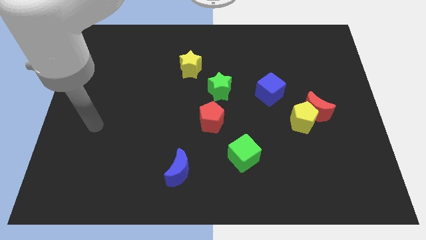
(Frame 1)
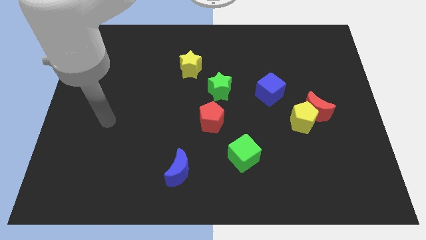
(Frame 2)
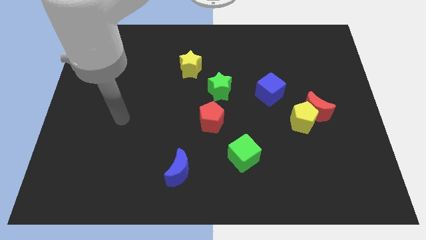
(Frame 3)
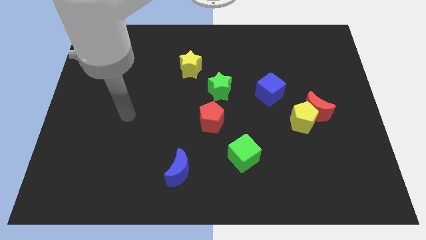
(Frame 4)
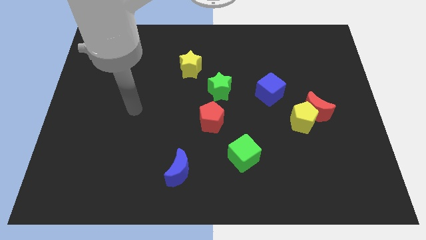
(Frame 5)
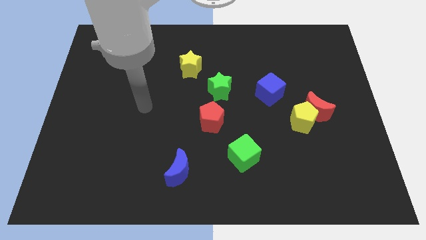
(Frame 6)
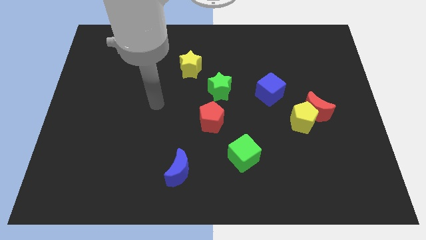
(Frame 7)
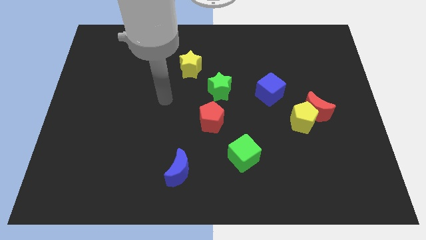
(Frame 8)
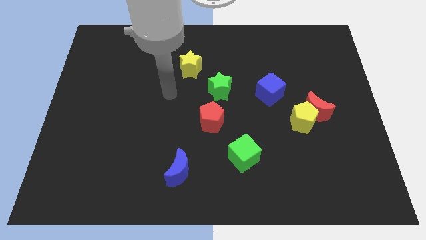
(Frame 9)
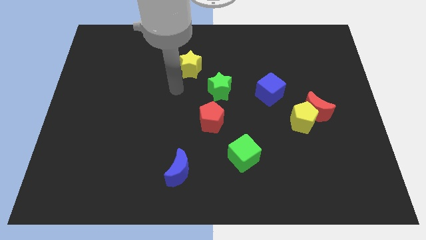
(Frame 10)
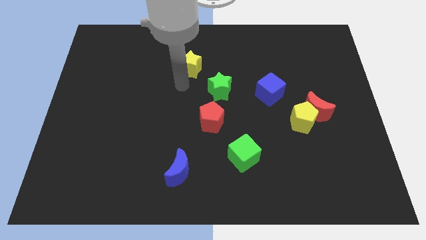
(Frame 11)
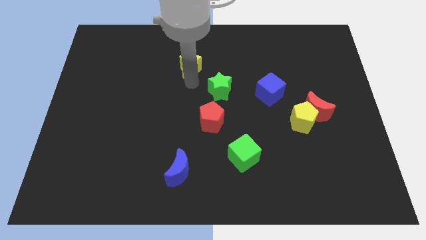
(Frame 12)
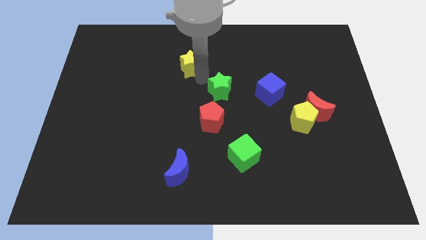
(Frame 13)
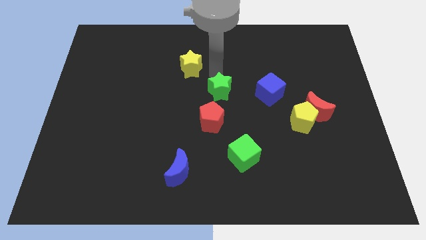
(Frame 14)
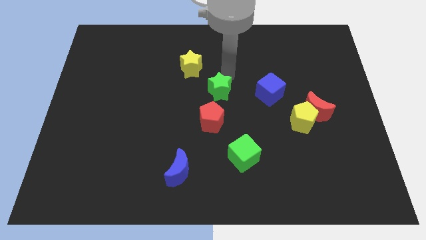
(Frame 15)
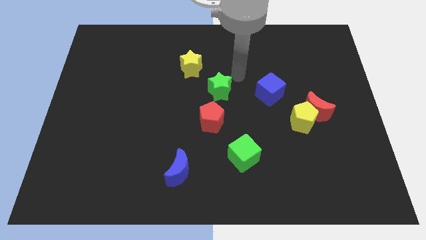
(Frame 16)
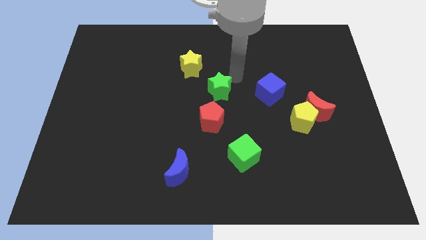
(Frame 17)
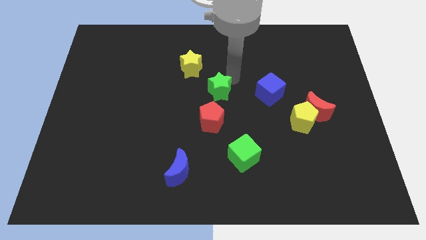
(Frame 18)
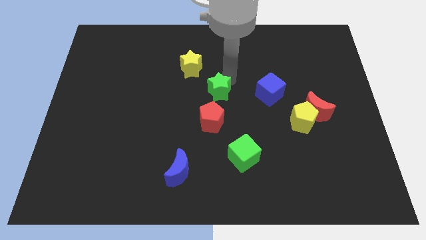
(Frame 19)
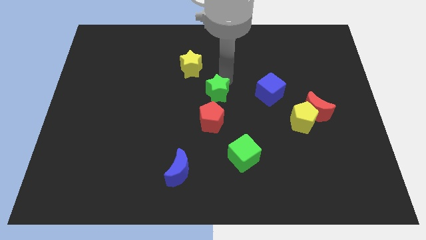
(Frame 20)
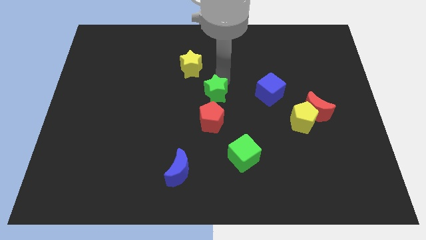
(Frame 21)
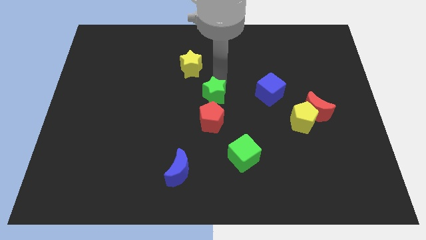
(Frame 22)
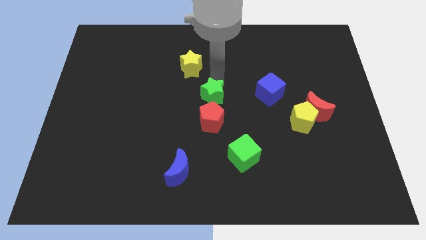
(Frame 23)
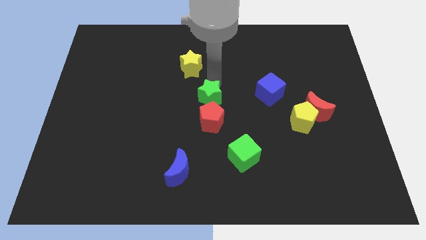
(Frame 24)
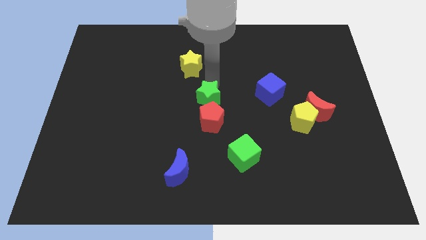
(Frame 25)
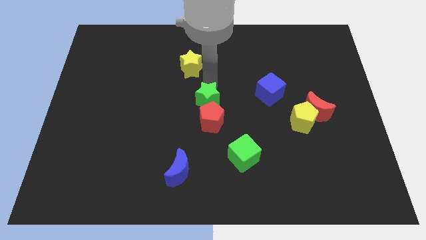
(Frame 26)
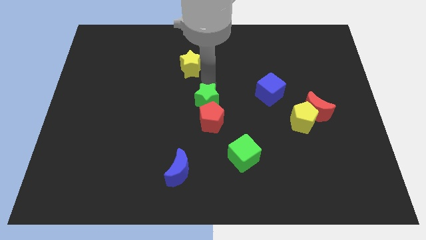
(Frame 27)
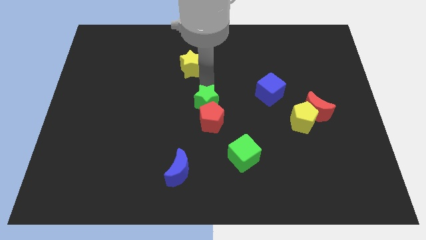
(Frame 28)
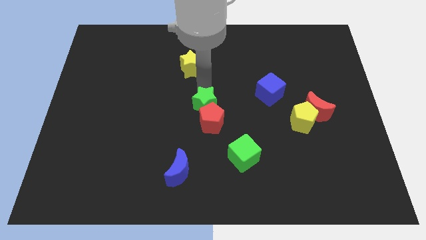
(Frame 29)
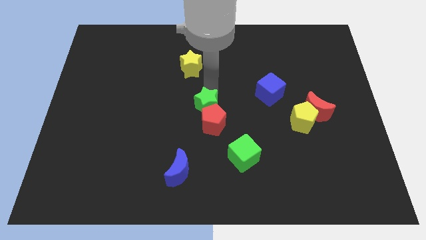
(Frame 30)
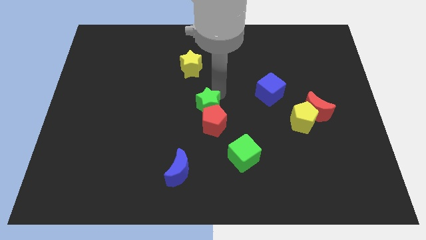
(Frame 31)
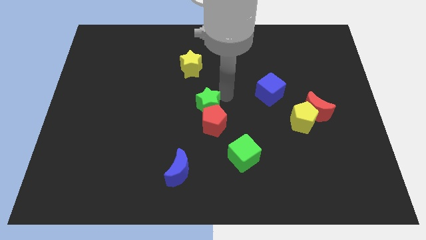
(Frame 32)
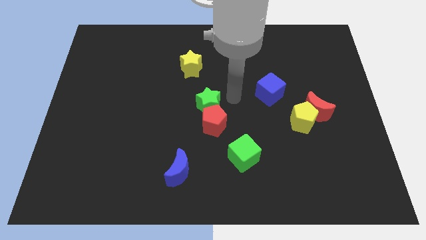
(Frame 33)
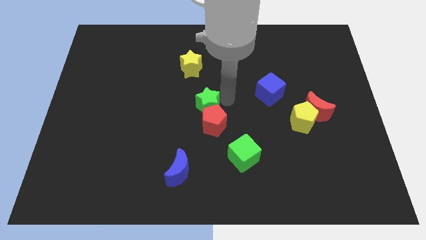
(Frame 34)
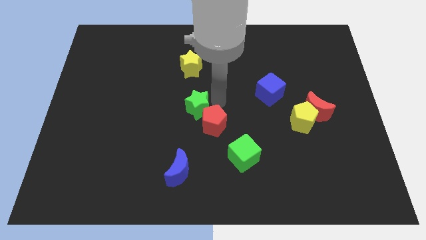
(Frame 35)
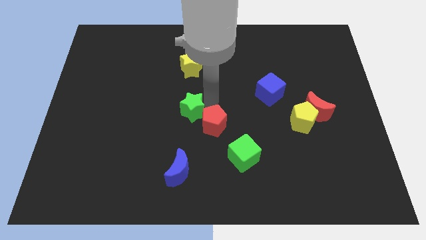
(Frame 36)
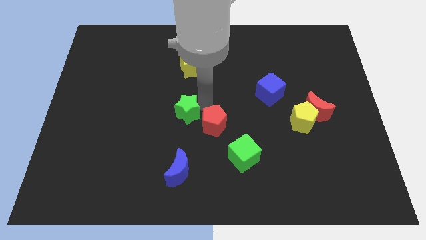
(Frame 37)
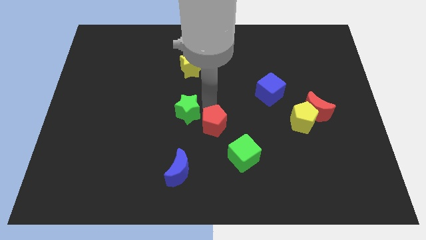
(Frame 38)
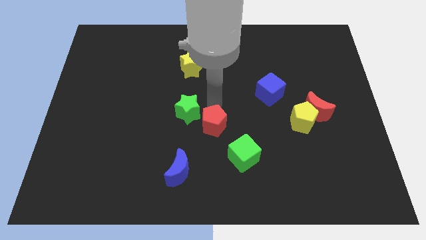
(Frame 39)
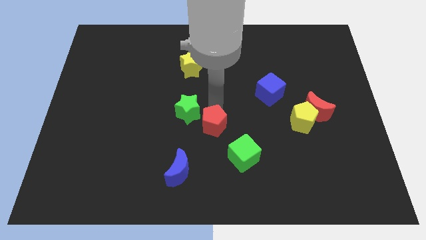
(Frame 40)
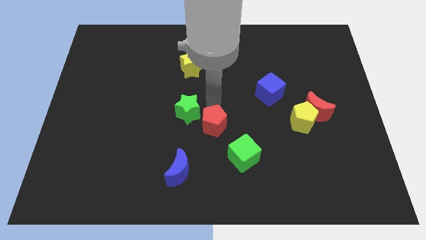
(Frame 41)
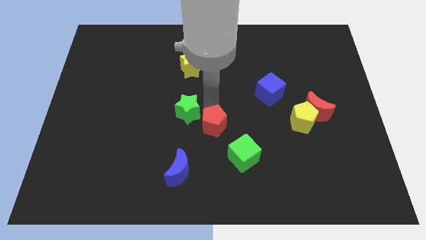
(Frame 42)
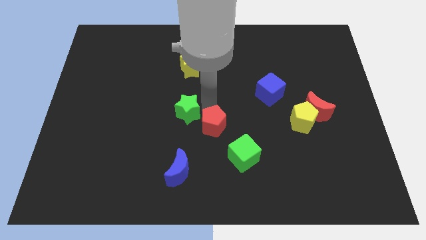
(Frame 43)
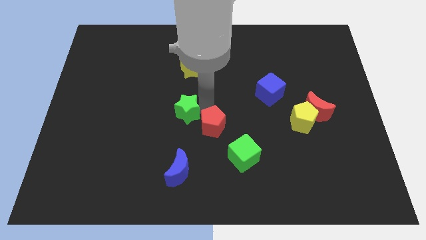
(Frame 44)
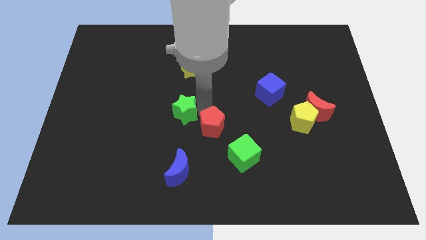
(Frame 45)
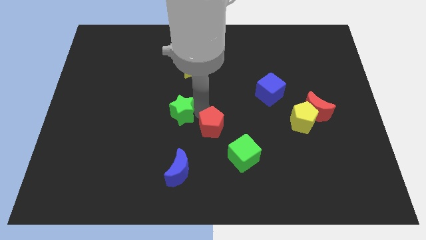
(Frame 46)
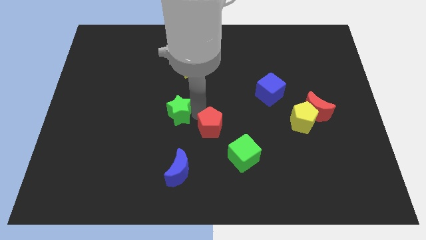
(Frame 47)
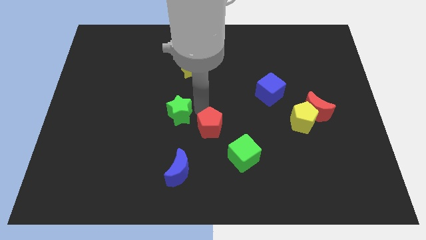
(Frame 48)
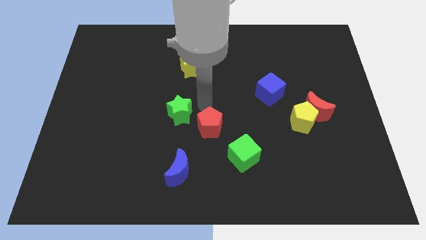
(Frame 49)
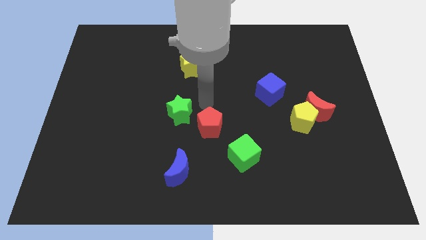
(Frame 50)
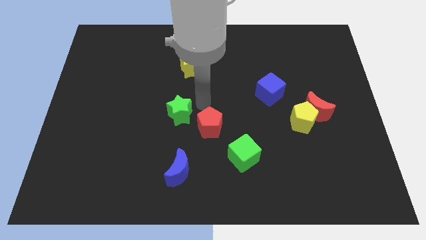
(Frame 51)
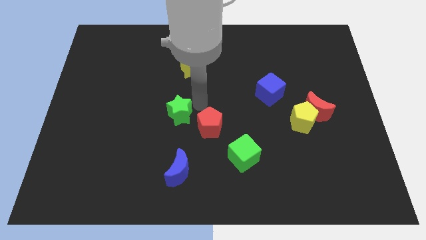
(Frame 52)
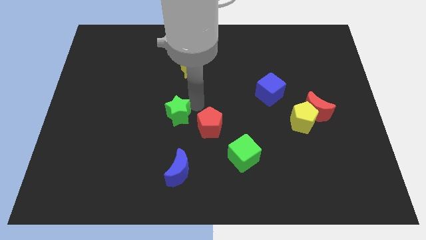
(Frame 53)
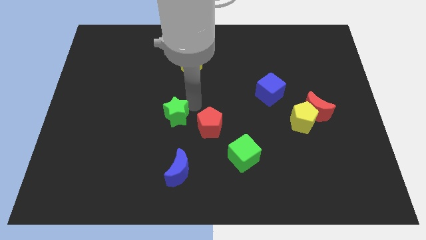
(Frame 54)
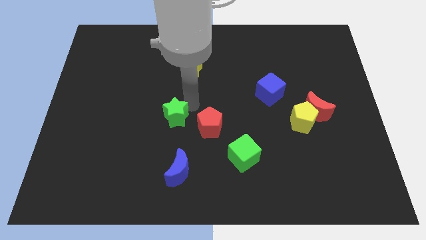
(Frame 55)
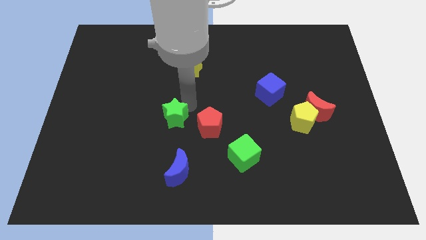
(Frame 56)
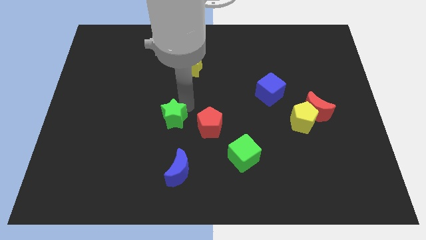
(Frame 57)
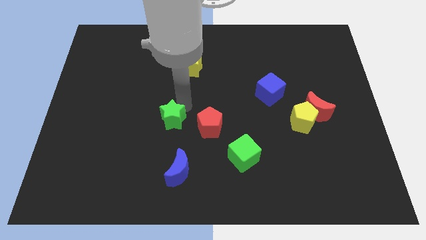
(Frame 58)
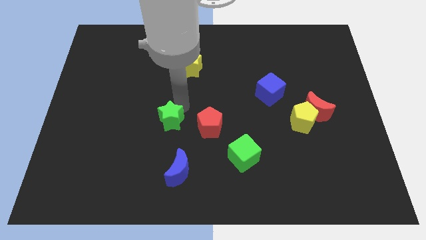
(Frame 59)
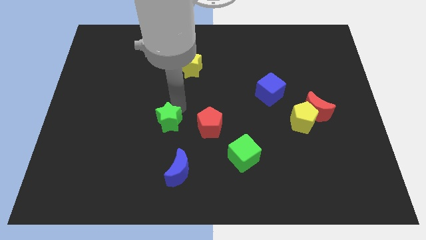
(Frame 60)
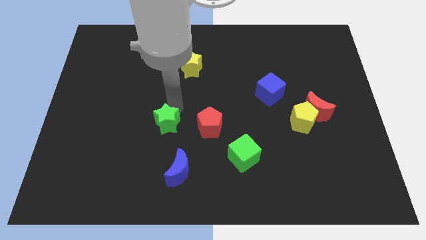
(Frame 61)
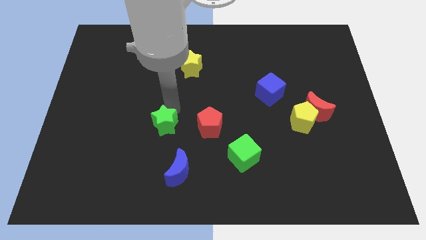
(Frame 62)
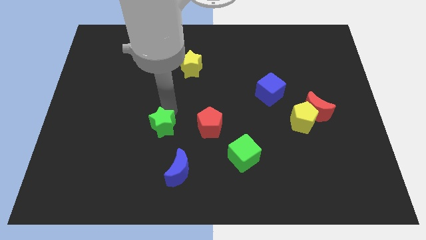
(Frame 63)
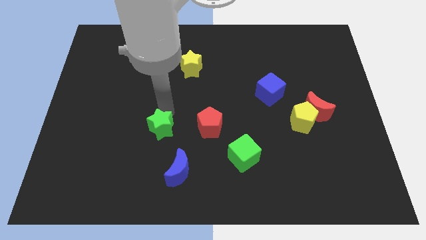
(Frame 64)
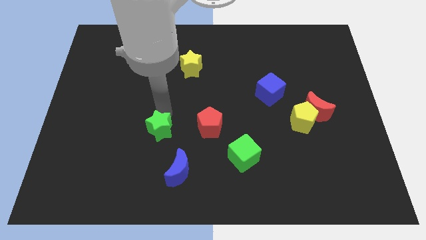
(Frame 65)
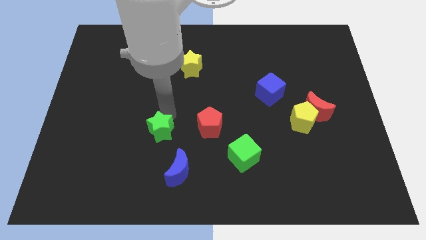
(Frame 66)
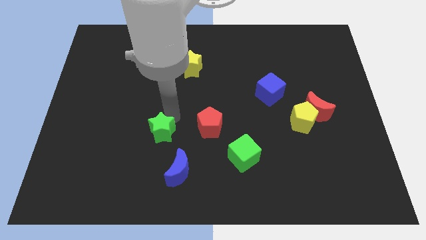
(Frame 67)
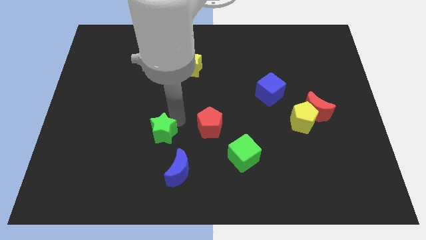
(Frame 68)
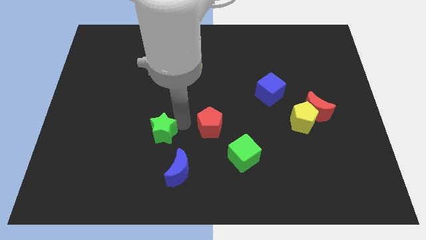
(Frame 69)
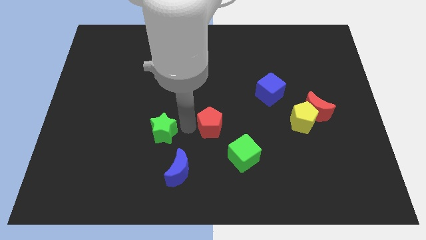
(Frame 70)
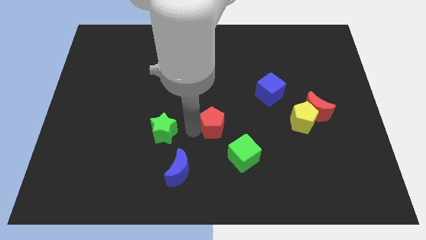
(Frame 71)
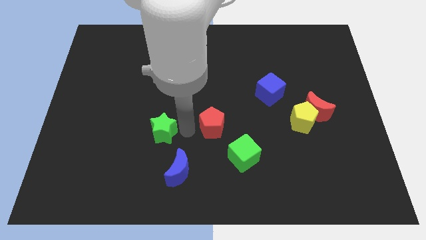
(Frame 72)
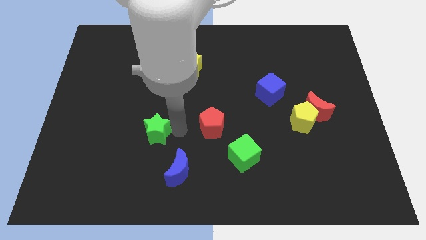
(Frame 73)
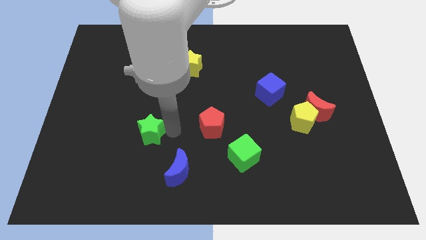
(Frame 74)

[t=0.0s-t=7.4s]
move the green star down and to the left

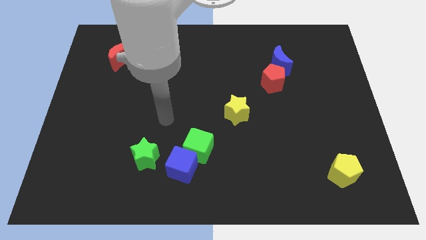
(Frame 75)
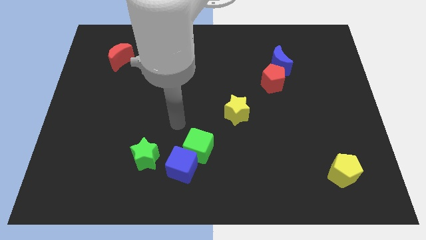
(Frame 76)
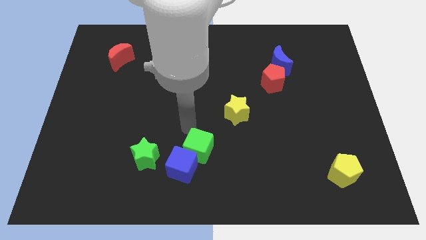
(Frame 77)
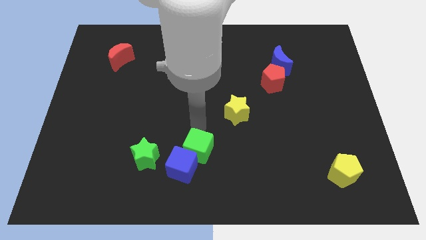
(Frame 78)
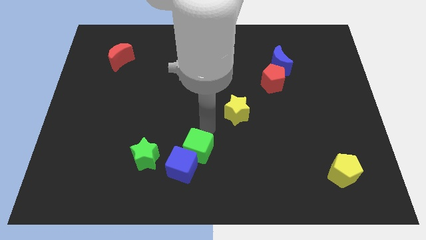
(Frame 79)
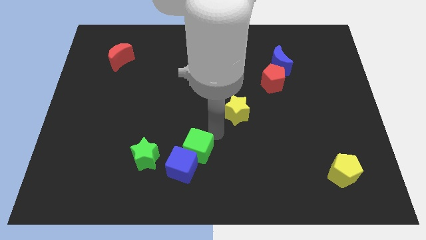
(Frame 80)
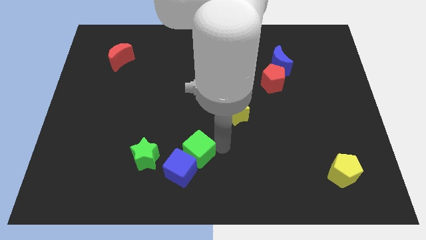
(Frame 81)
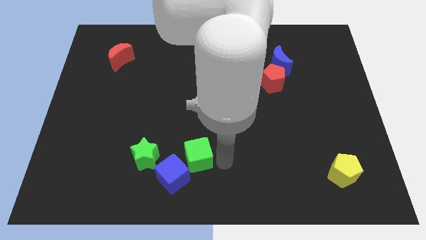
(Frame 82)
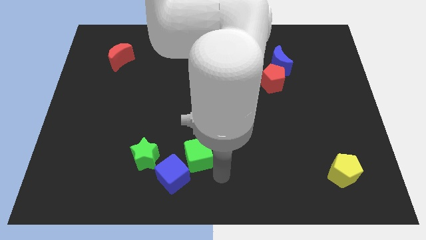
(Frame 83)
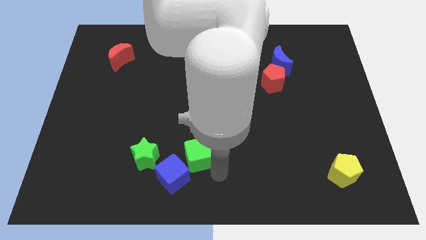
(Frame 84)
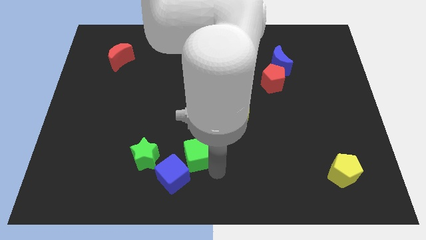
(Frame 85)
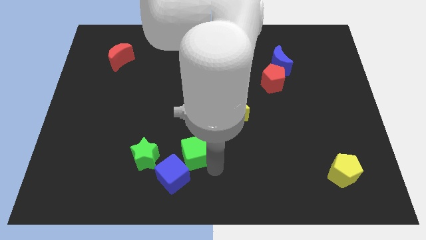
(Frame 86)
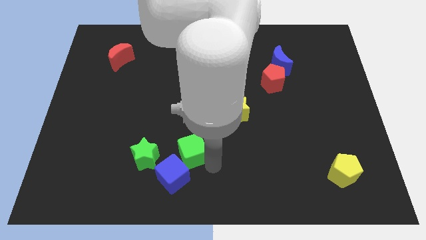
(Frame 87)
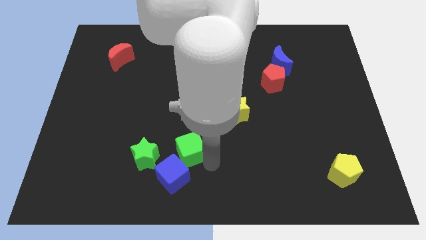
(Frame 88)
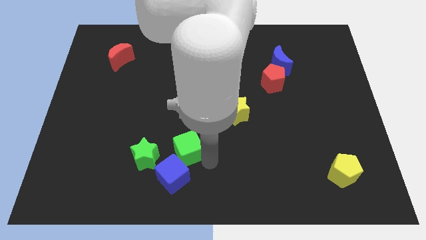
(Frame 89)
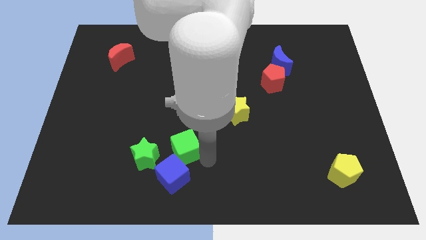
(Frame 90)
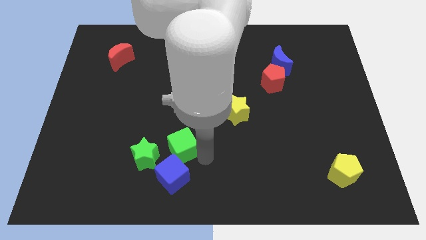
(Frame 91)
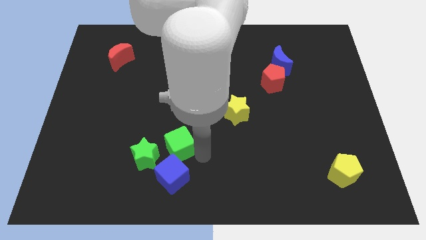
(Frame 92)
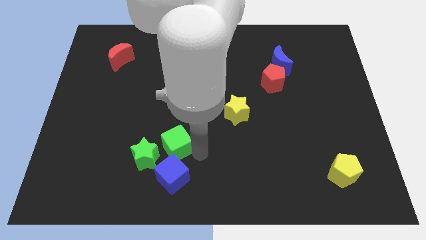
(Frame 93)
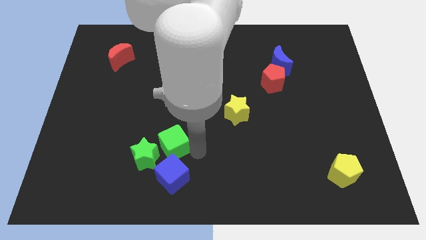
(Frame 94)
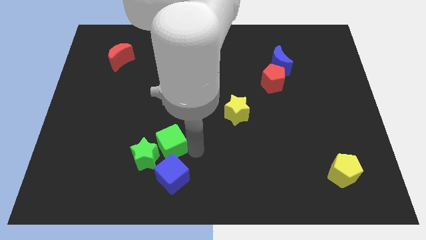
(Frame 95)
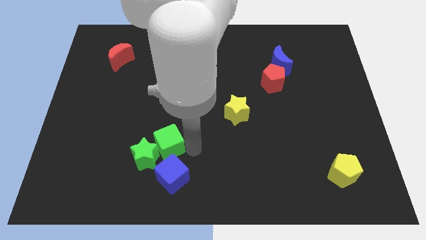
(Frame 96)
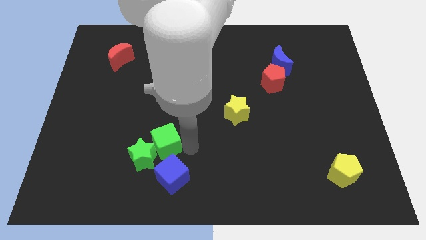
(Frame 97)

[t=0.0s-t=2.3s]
slide the green cube a little to the left
